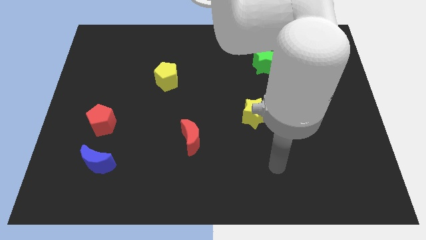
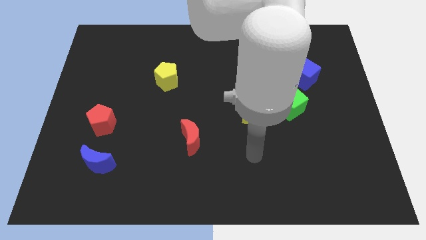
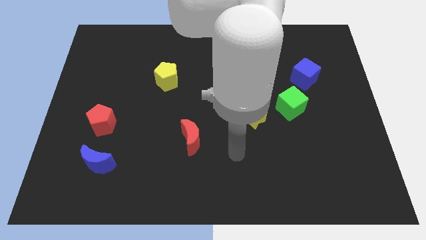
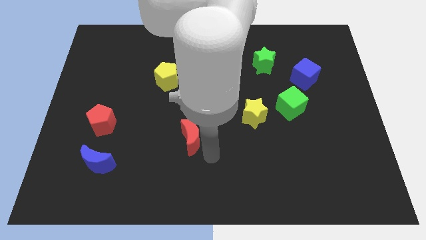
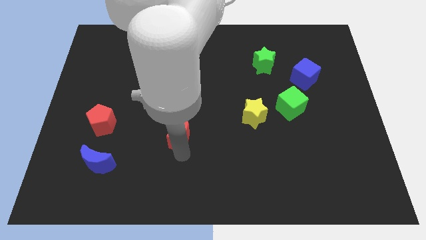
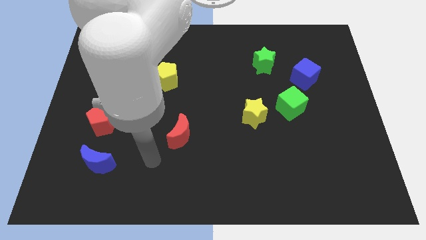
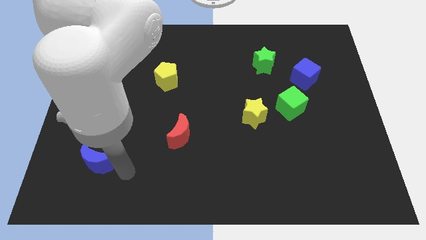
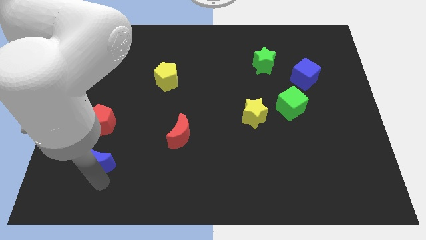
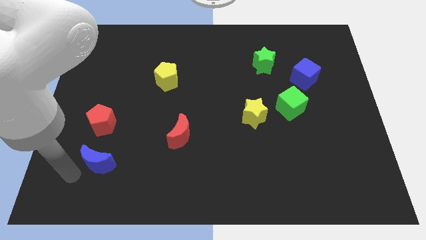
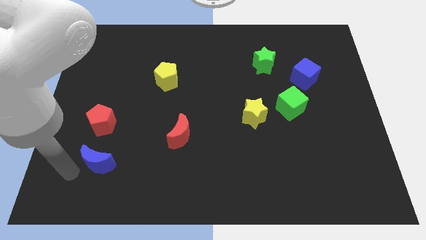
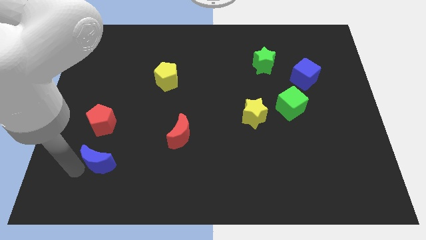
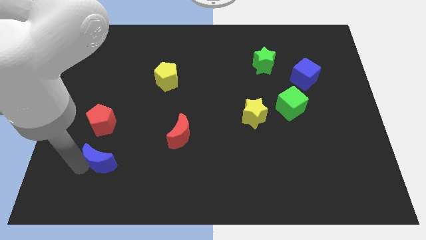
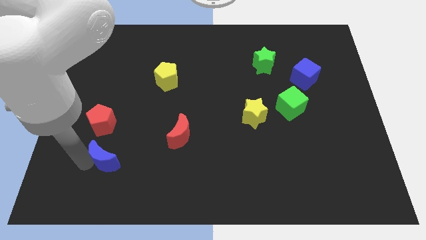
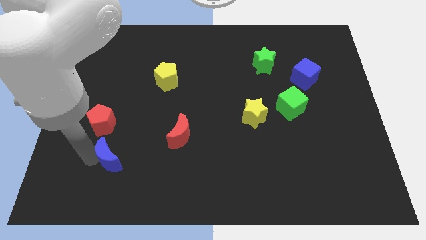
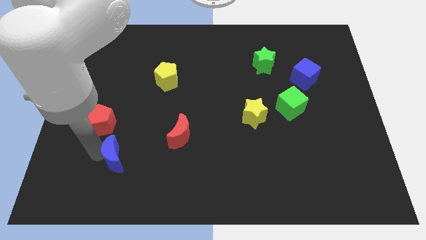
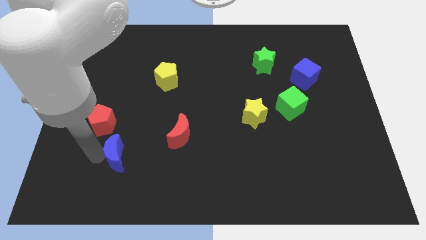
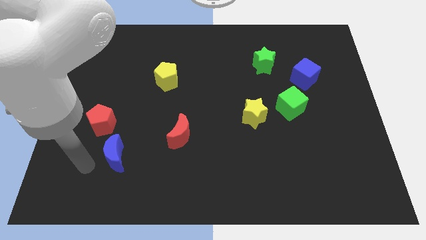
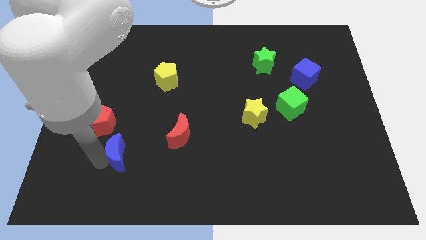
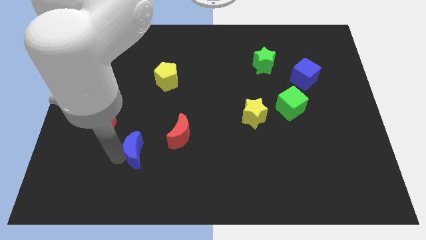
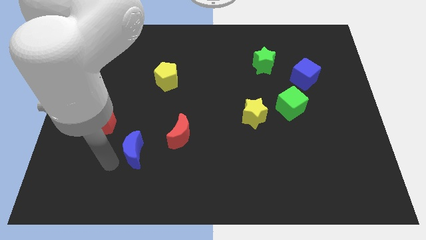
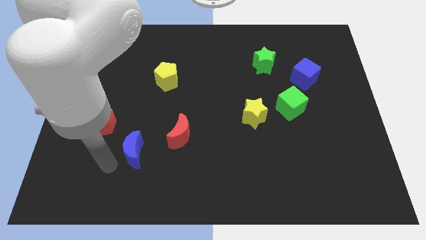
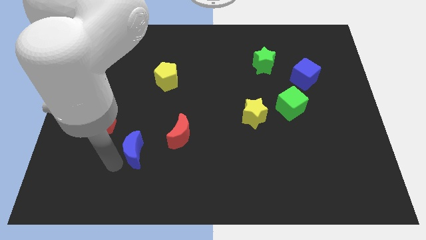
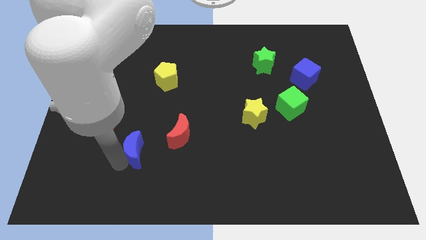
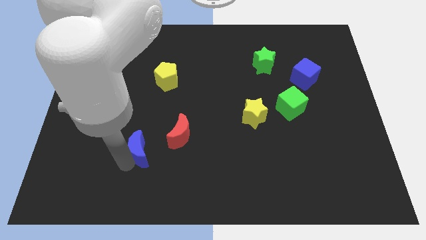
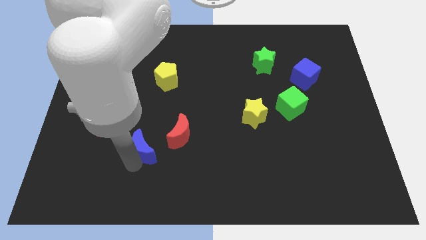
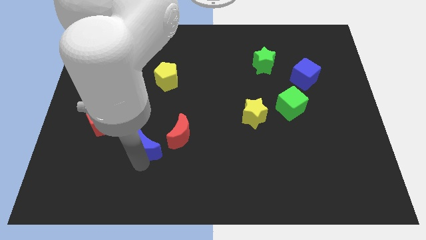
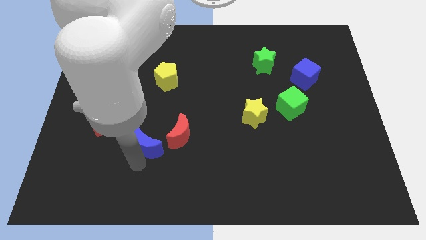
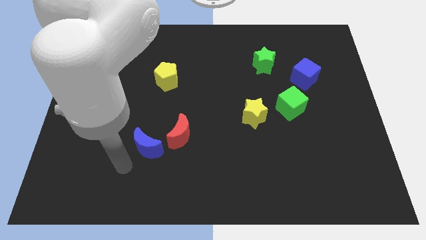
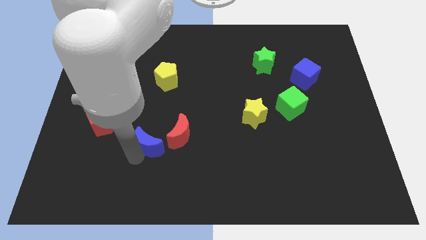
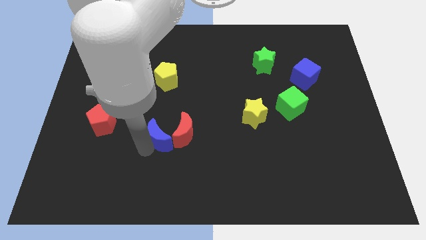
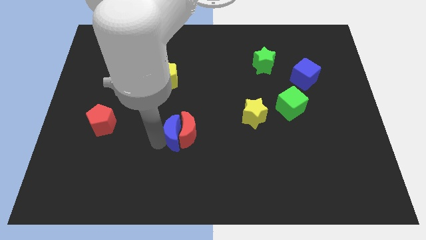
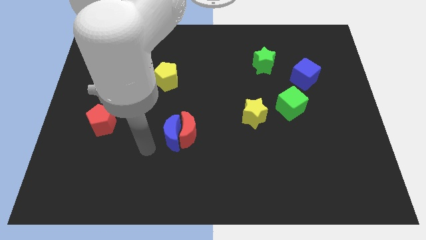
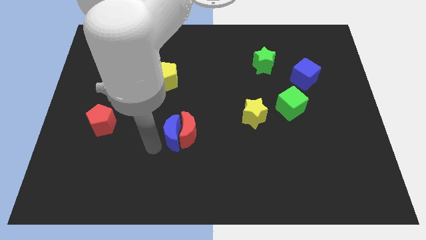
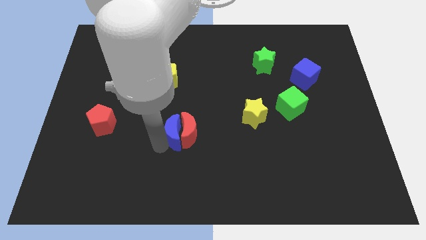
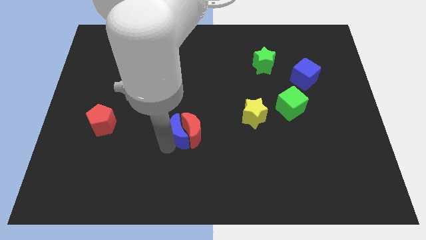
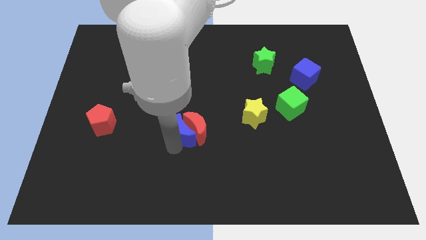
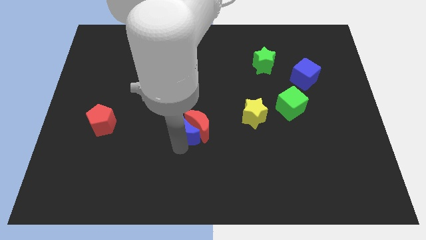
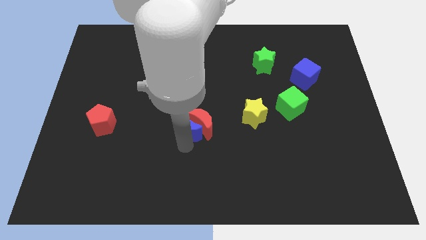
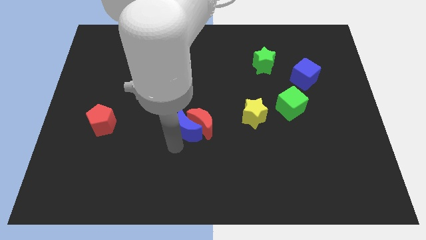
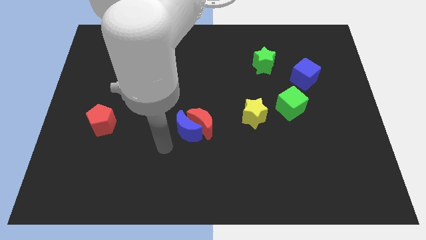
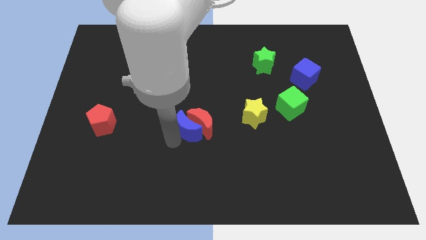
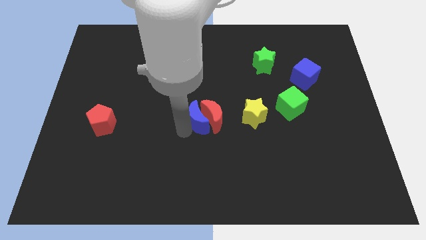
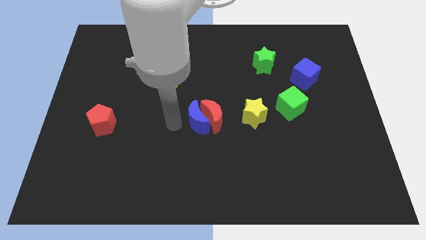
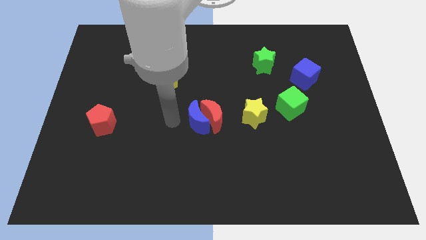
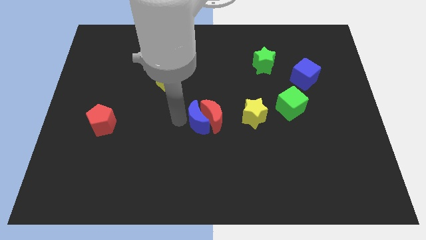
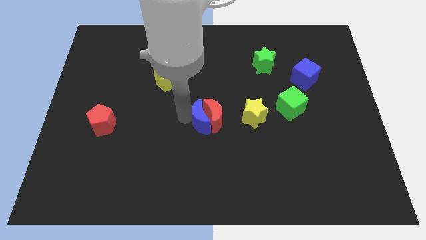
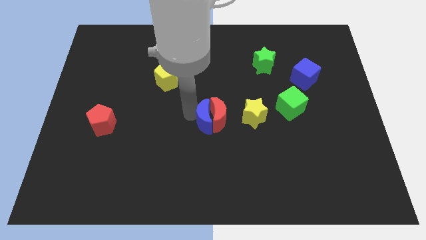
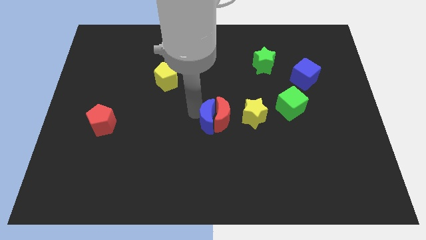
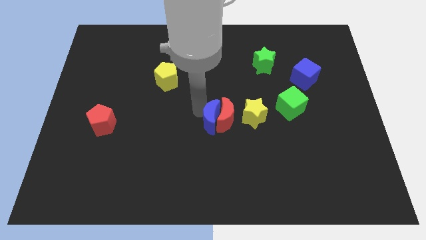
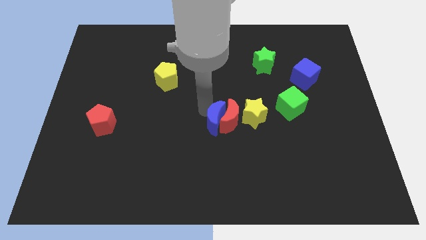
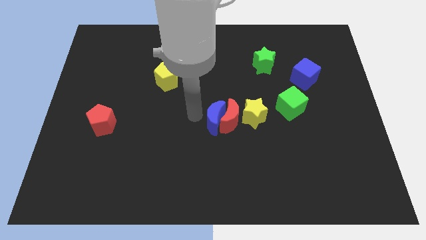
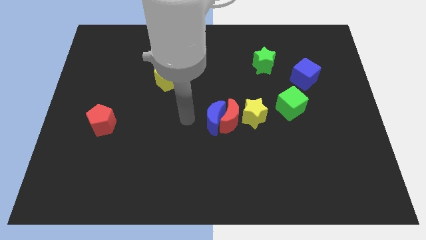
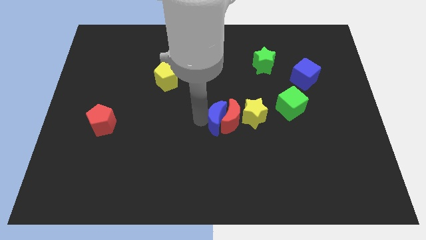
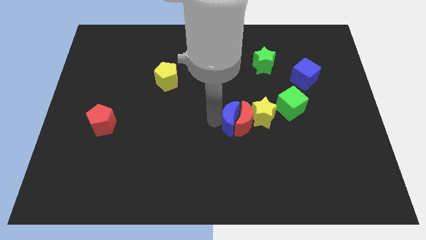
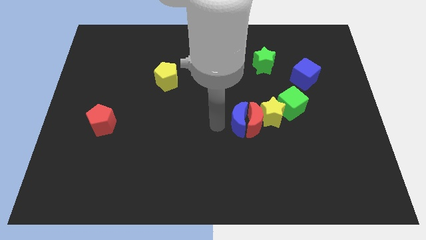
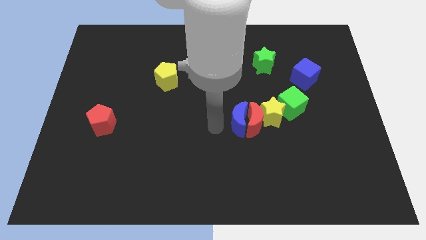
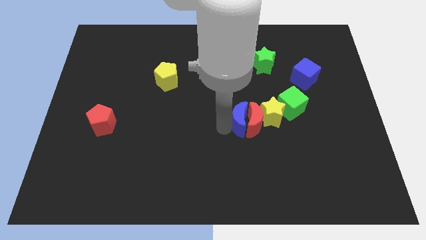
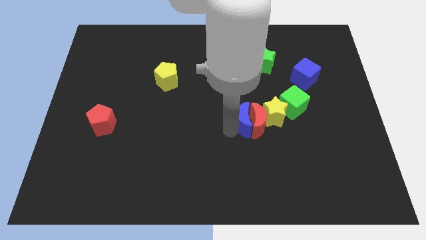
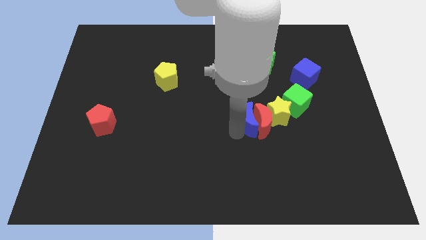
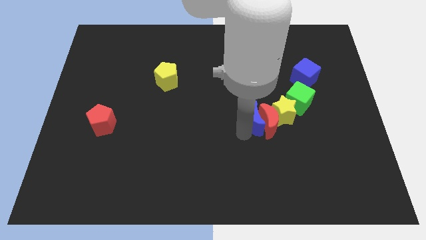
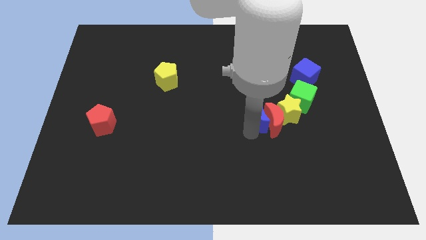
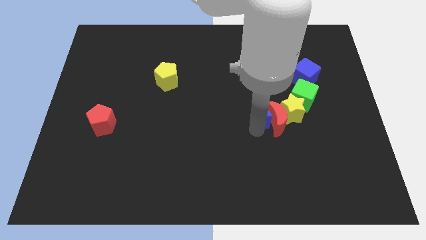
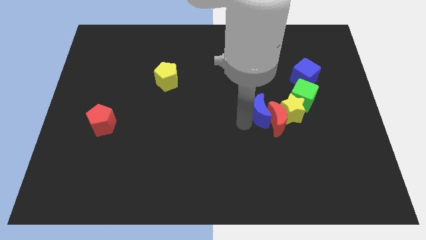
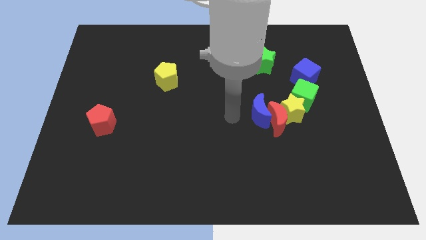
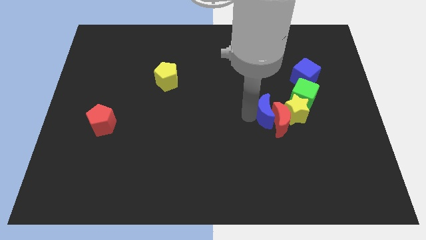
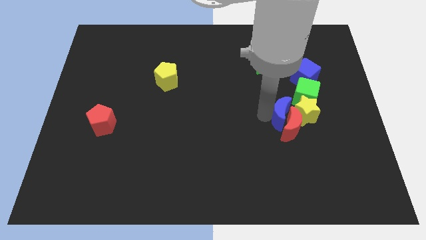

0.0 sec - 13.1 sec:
slide the blue moon to the yellow star
